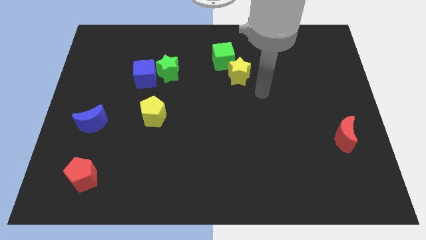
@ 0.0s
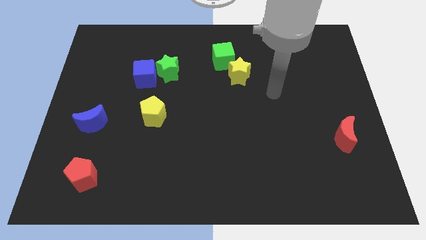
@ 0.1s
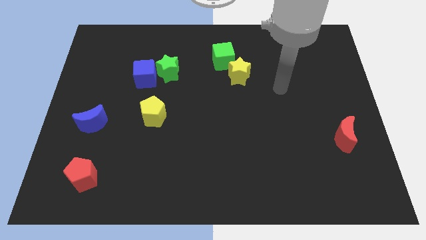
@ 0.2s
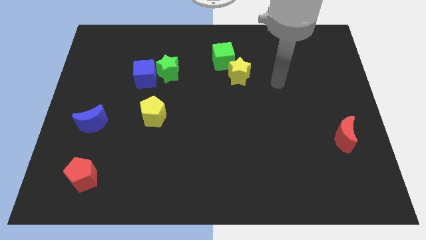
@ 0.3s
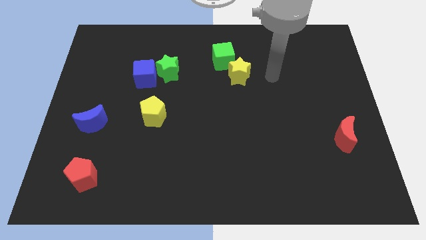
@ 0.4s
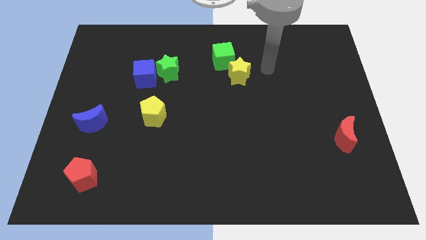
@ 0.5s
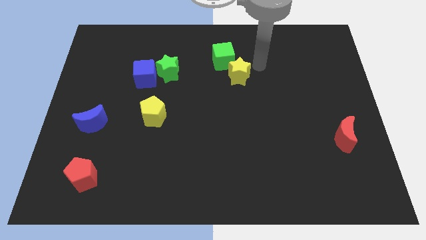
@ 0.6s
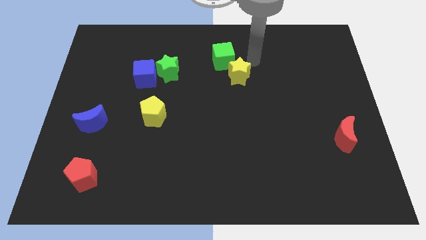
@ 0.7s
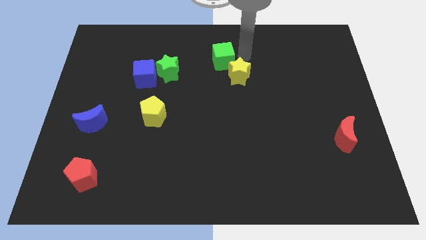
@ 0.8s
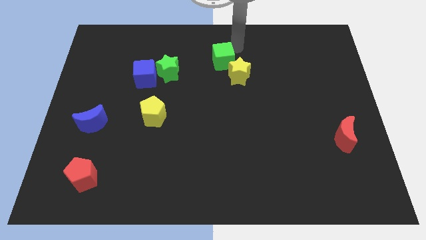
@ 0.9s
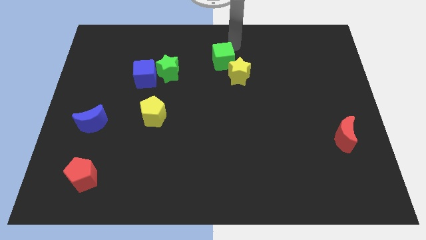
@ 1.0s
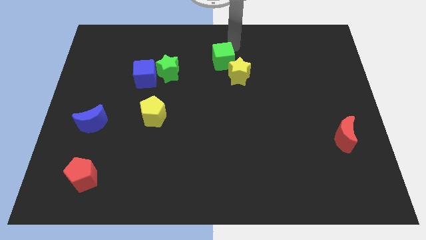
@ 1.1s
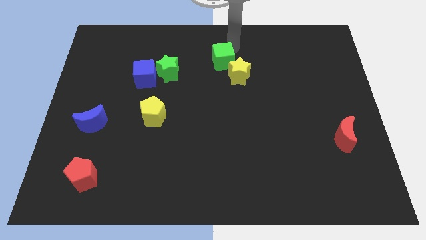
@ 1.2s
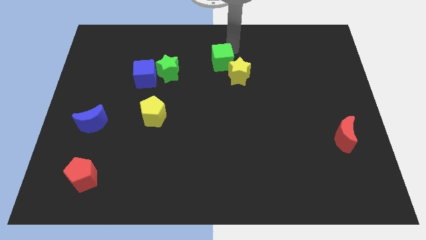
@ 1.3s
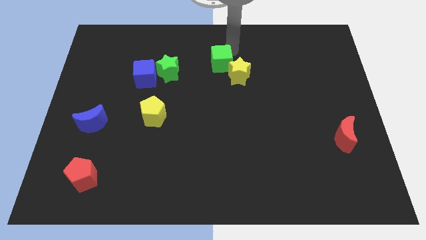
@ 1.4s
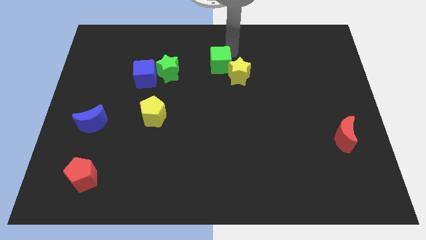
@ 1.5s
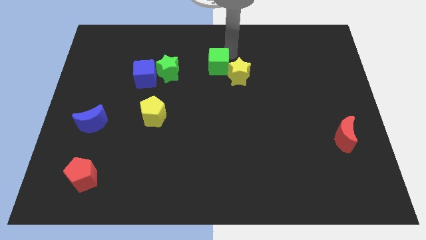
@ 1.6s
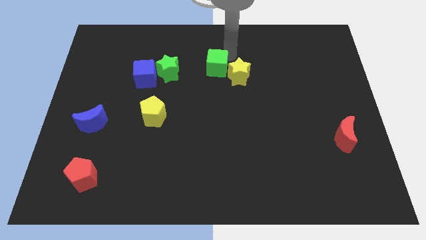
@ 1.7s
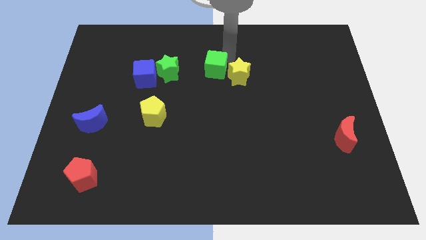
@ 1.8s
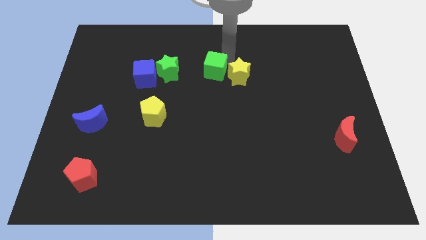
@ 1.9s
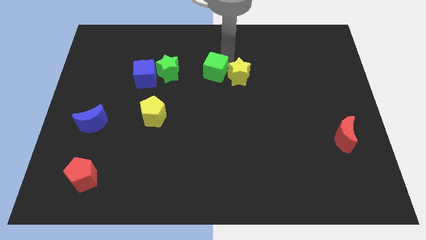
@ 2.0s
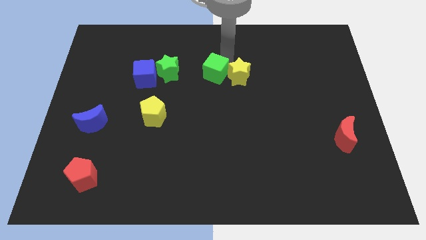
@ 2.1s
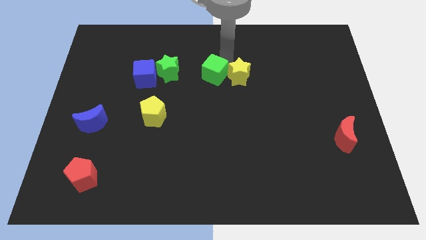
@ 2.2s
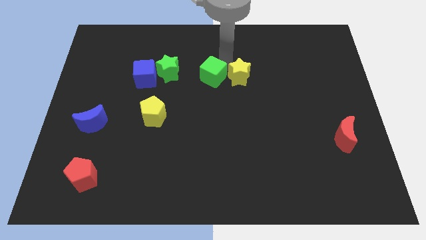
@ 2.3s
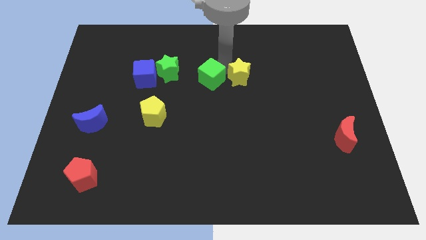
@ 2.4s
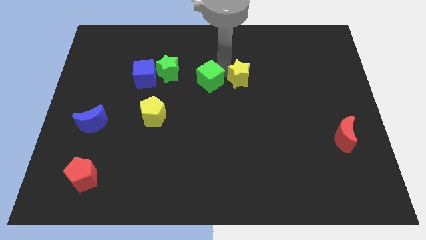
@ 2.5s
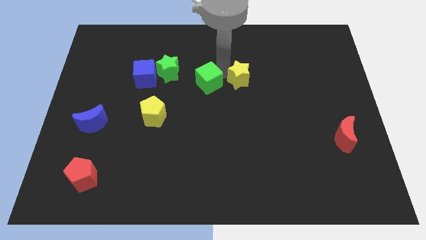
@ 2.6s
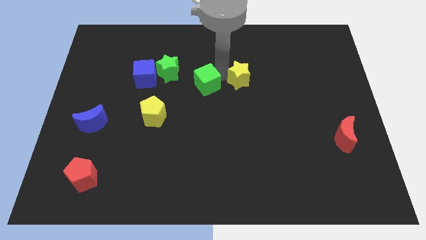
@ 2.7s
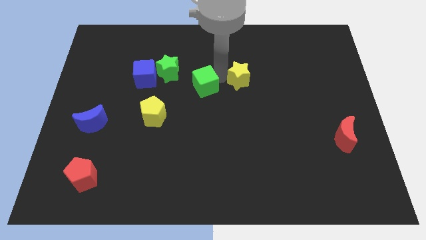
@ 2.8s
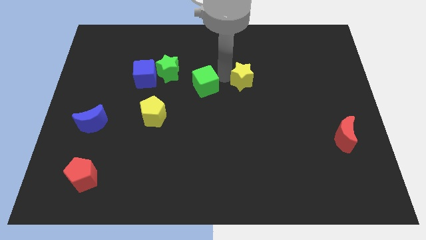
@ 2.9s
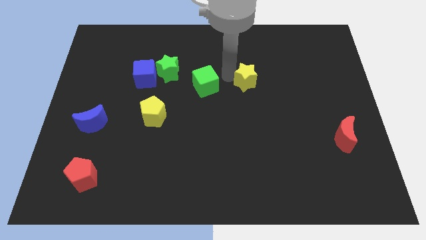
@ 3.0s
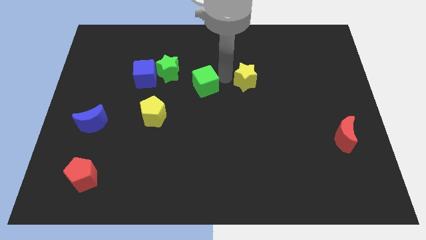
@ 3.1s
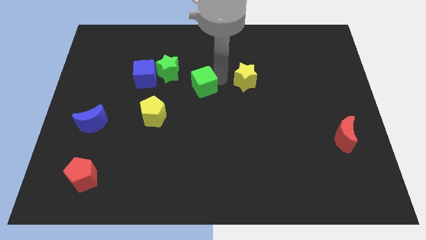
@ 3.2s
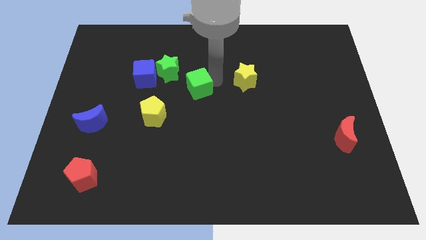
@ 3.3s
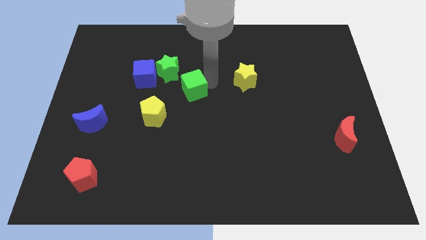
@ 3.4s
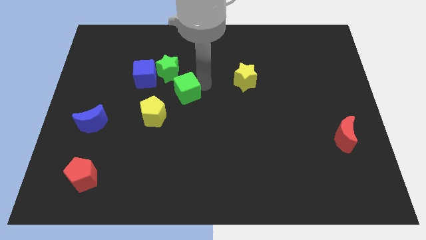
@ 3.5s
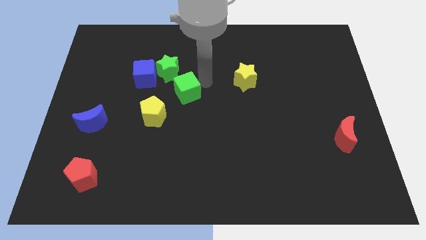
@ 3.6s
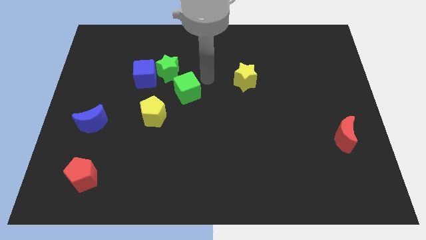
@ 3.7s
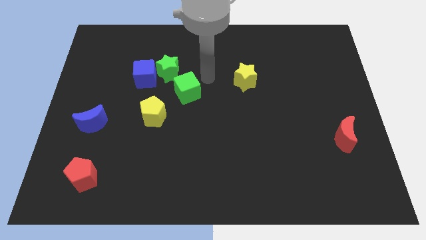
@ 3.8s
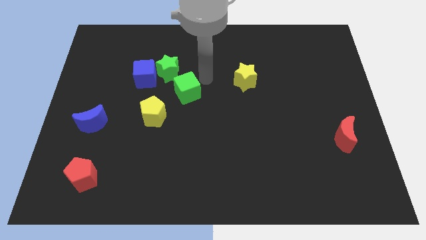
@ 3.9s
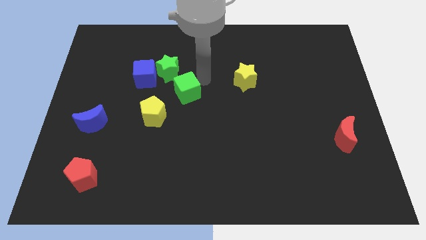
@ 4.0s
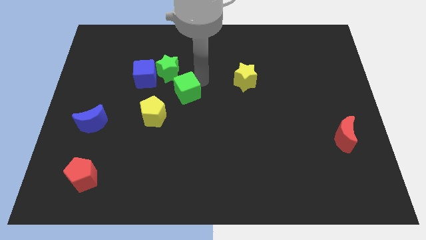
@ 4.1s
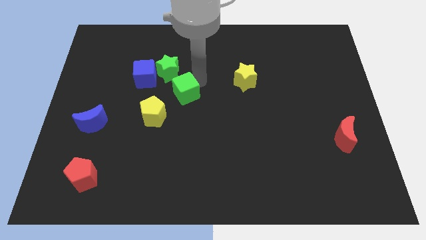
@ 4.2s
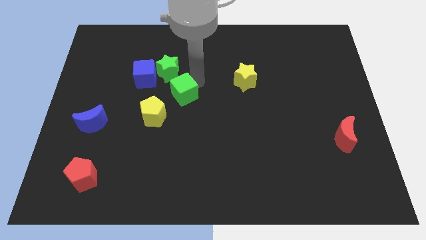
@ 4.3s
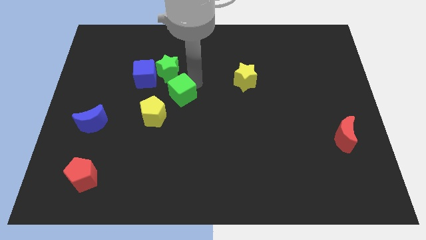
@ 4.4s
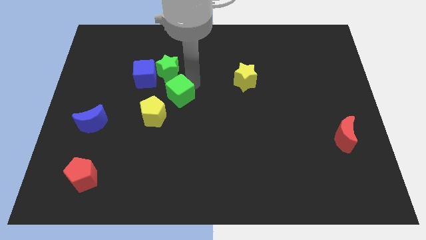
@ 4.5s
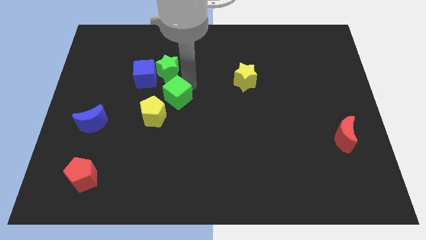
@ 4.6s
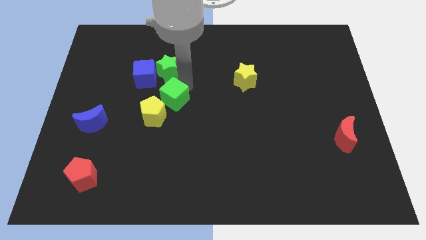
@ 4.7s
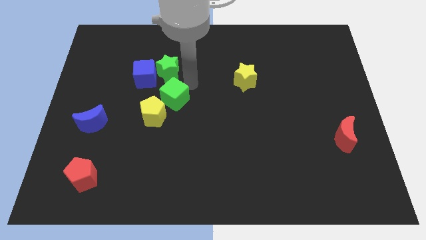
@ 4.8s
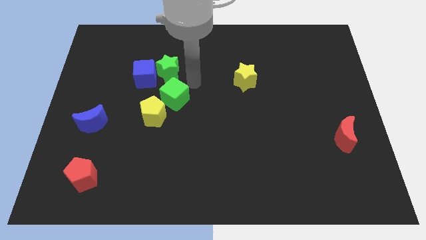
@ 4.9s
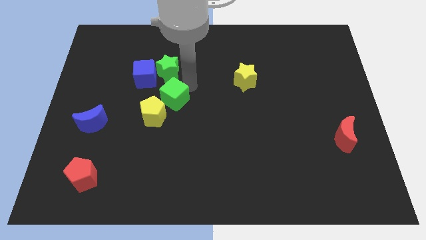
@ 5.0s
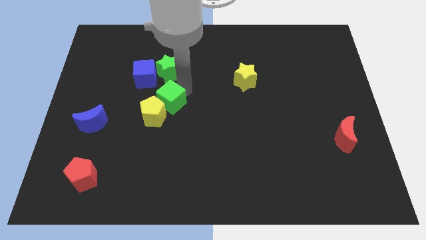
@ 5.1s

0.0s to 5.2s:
push the green cube to the yellow pentagon

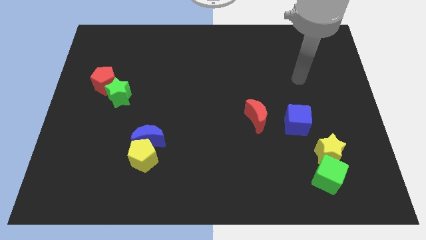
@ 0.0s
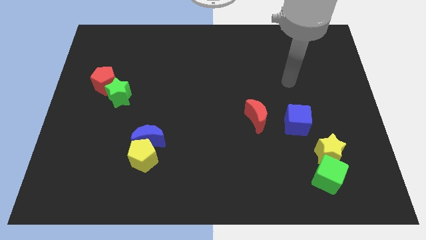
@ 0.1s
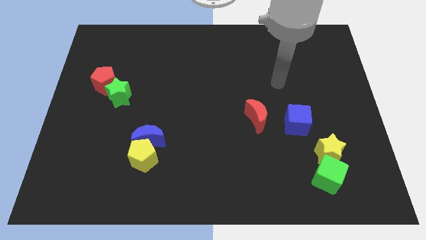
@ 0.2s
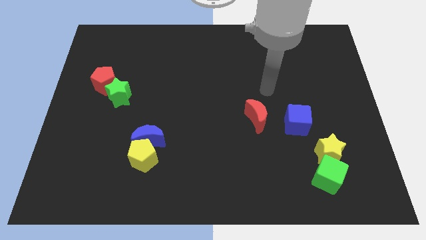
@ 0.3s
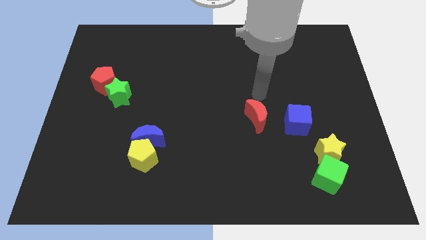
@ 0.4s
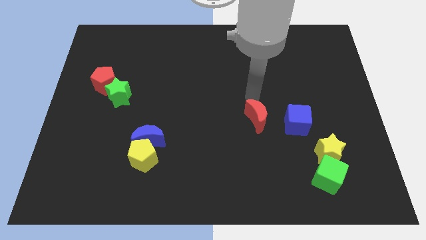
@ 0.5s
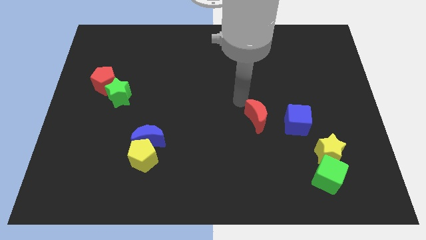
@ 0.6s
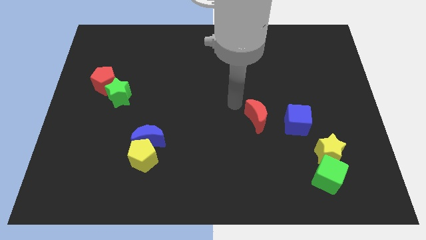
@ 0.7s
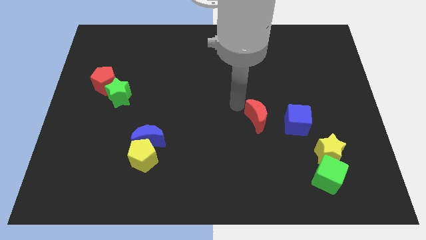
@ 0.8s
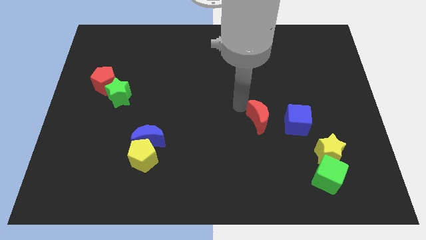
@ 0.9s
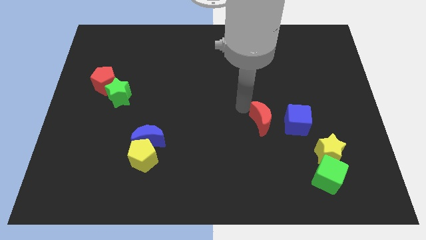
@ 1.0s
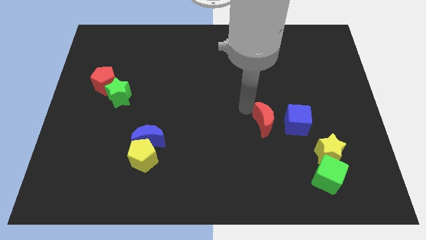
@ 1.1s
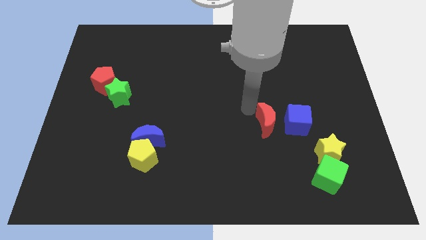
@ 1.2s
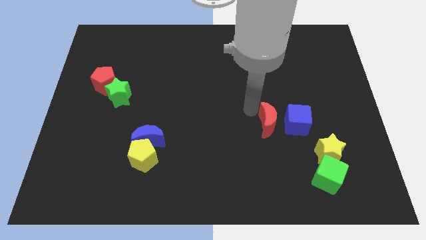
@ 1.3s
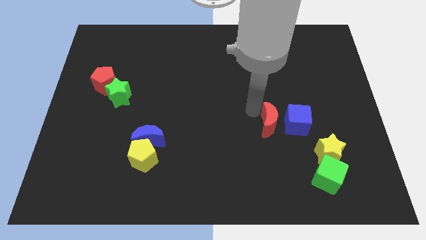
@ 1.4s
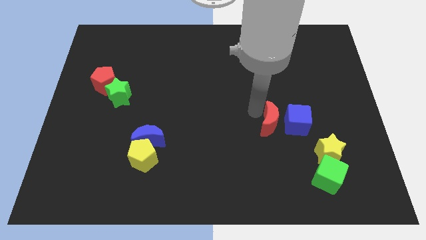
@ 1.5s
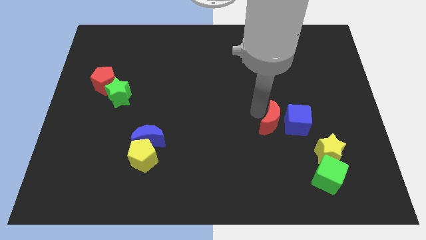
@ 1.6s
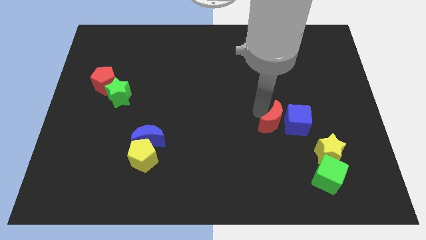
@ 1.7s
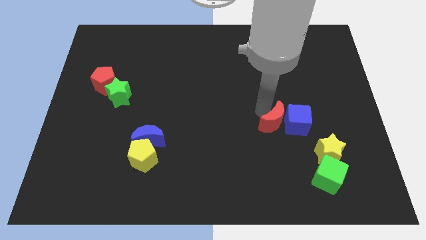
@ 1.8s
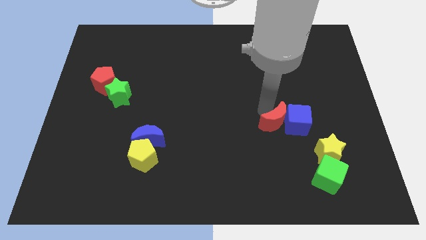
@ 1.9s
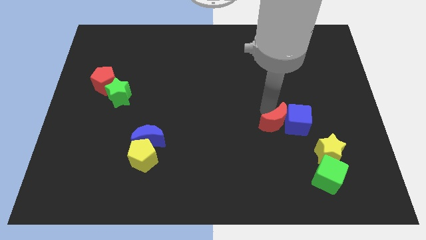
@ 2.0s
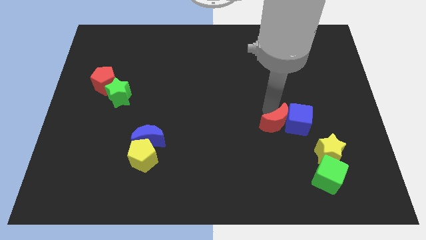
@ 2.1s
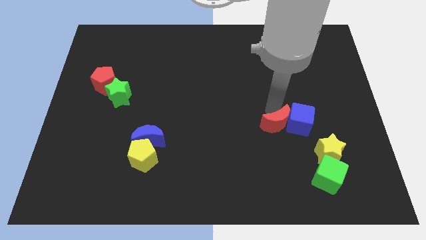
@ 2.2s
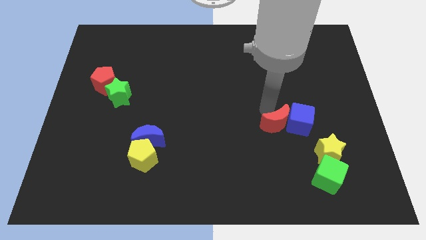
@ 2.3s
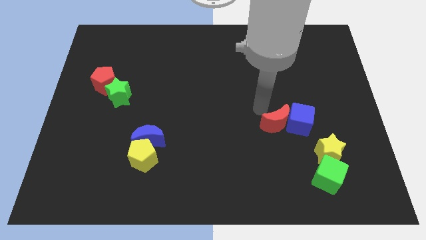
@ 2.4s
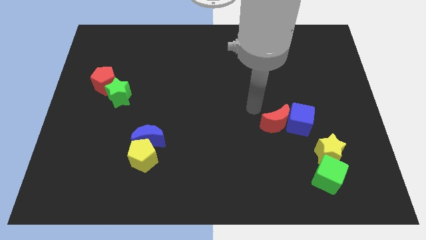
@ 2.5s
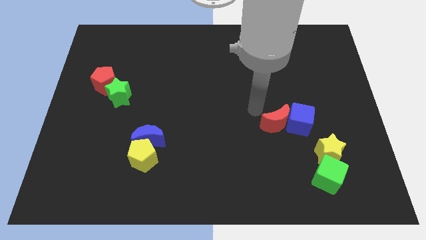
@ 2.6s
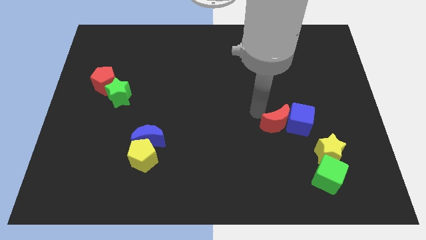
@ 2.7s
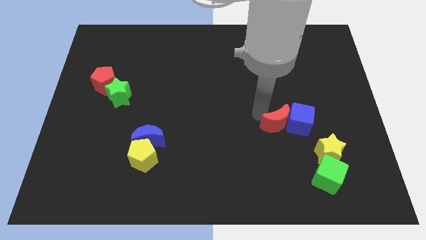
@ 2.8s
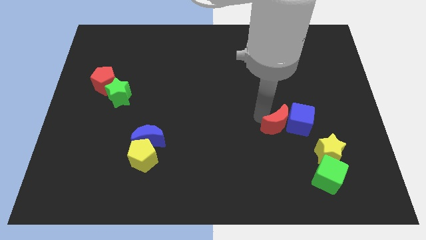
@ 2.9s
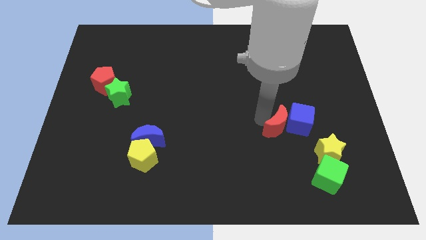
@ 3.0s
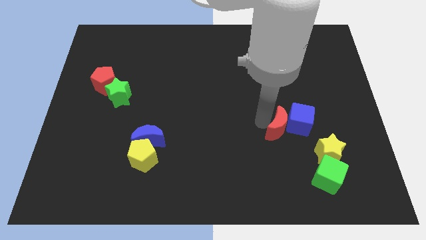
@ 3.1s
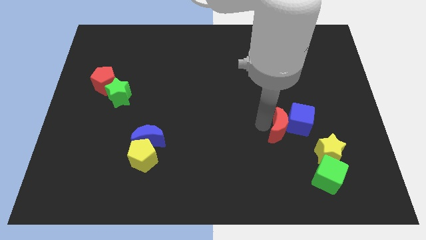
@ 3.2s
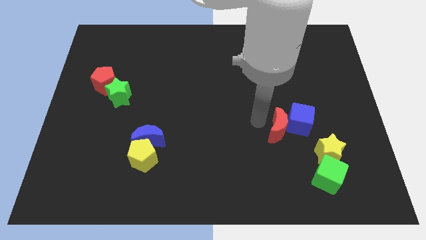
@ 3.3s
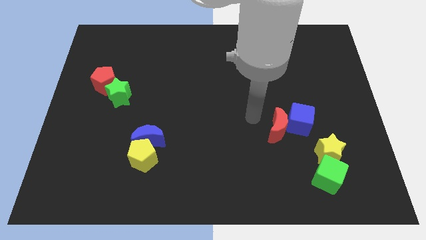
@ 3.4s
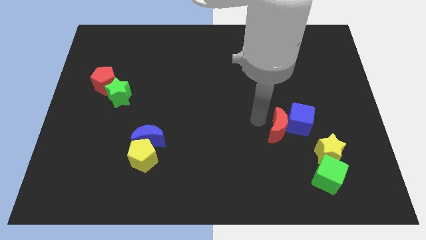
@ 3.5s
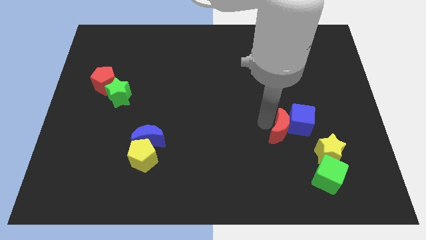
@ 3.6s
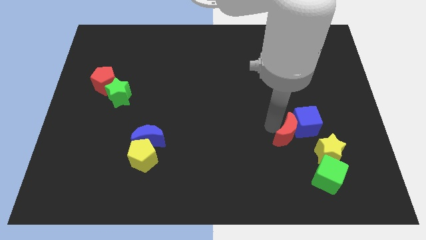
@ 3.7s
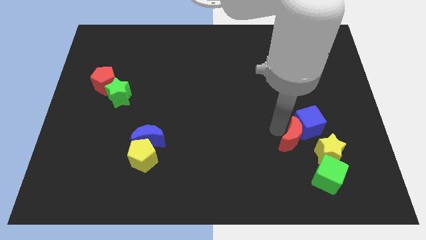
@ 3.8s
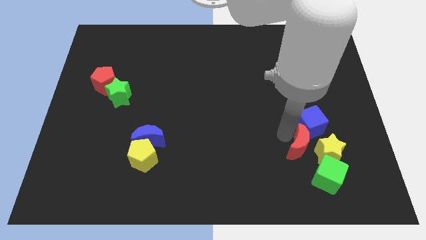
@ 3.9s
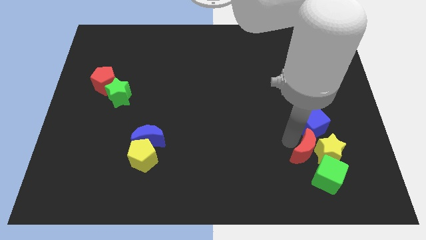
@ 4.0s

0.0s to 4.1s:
push the red moon to the yellow star
